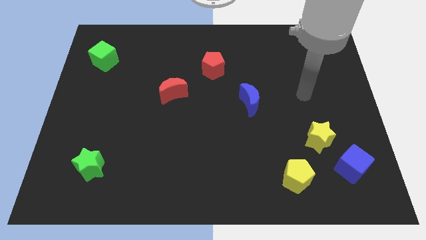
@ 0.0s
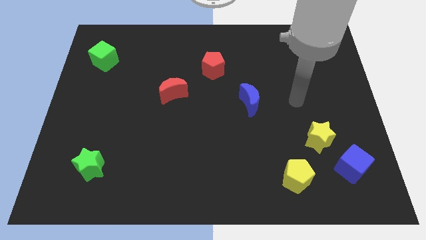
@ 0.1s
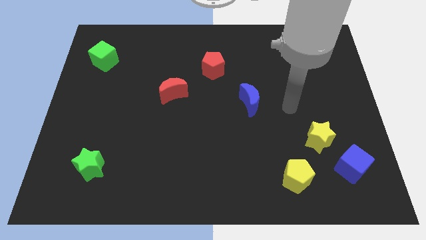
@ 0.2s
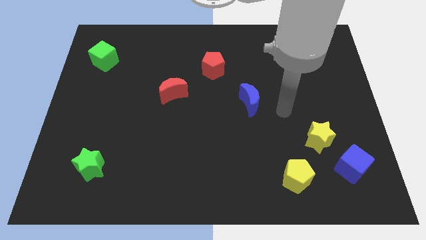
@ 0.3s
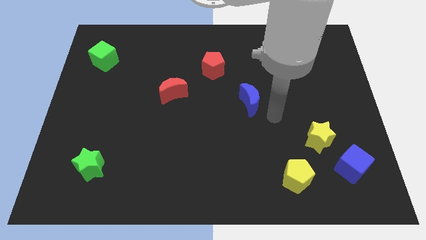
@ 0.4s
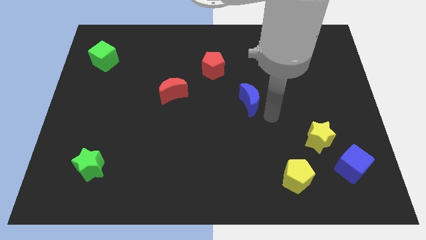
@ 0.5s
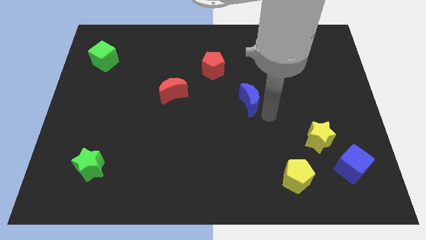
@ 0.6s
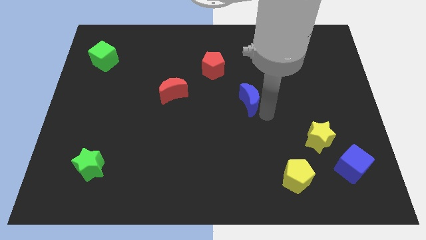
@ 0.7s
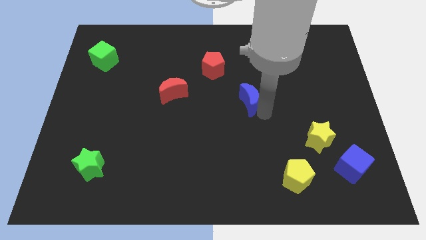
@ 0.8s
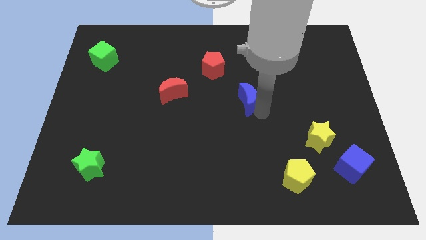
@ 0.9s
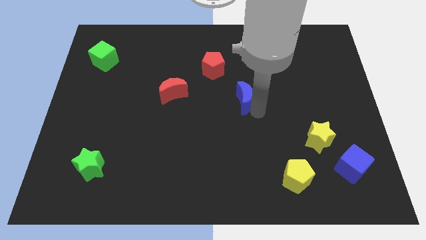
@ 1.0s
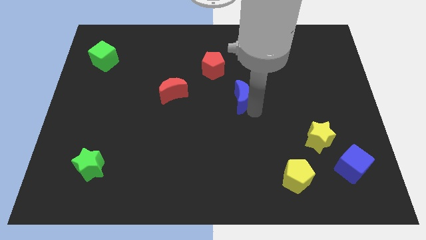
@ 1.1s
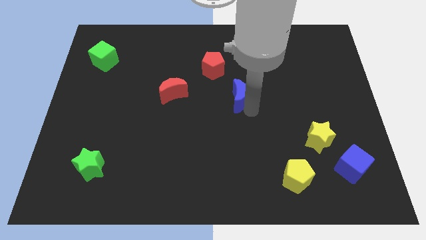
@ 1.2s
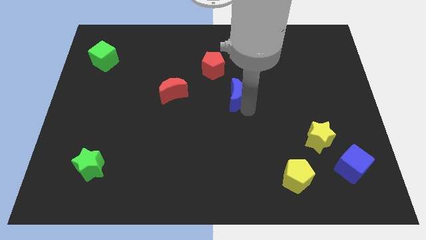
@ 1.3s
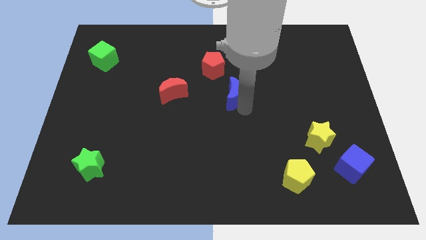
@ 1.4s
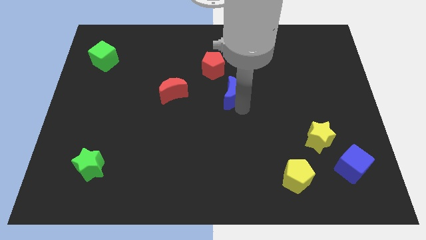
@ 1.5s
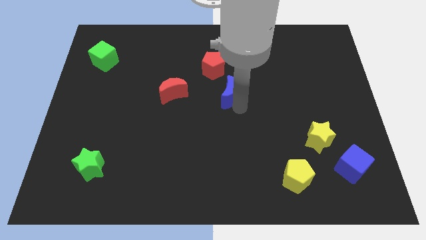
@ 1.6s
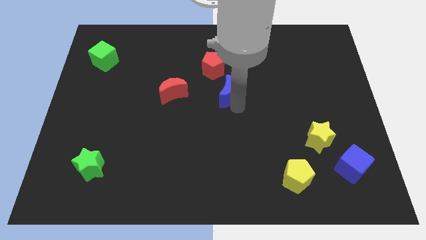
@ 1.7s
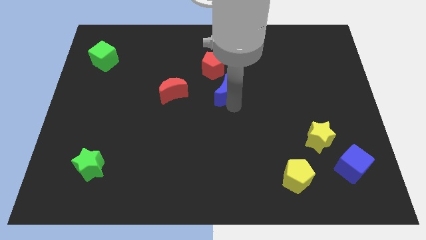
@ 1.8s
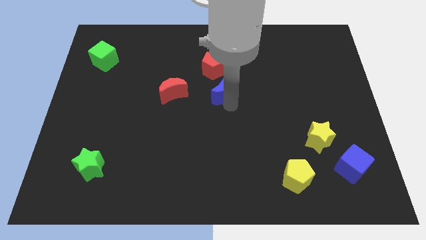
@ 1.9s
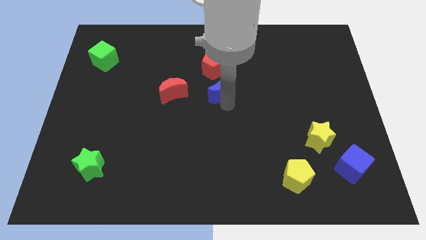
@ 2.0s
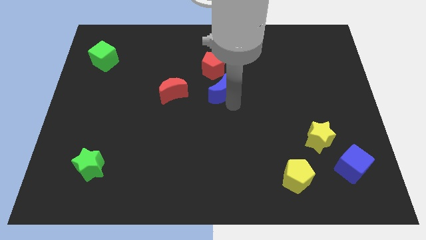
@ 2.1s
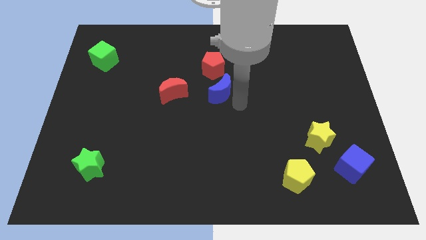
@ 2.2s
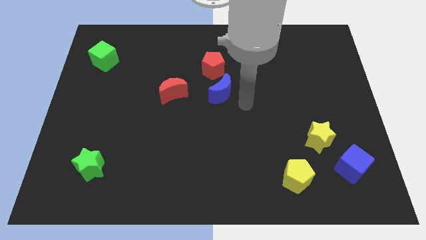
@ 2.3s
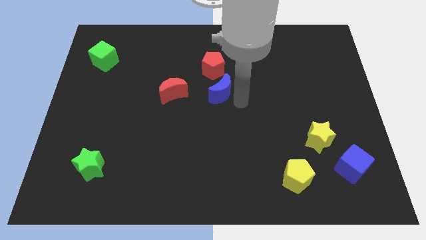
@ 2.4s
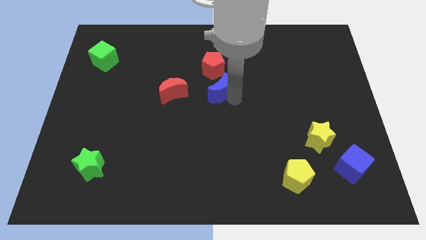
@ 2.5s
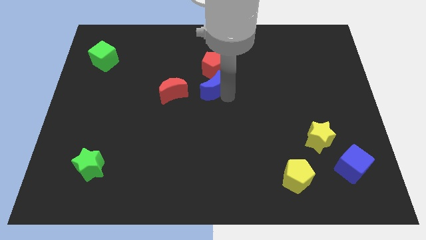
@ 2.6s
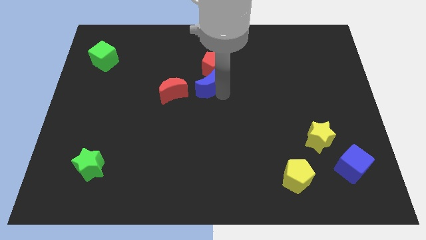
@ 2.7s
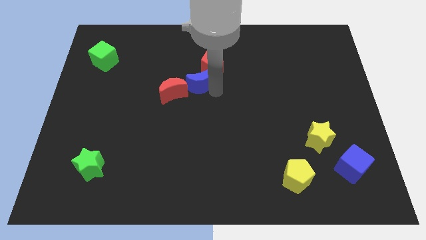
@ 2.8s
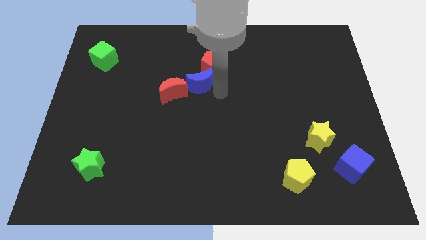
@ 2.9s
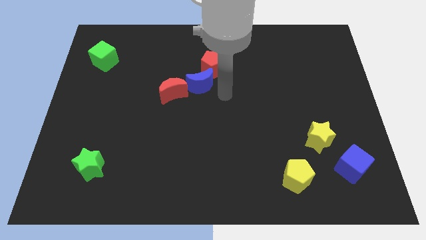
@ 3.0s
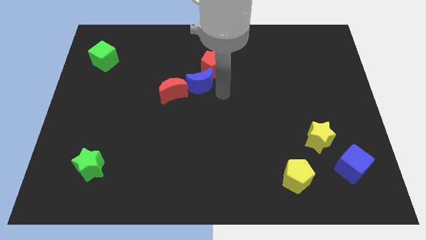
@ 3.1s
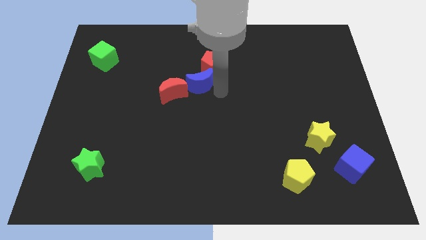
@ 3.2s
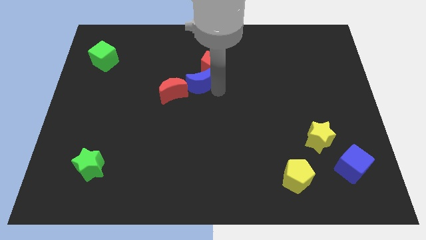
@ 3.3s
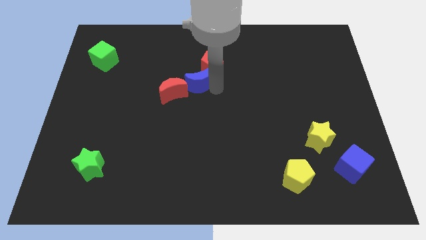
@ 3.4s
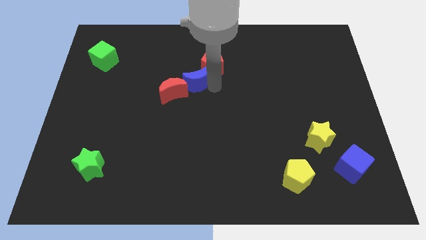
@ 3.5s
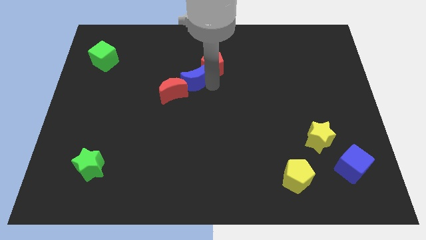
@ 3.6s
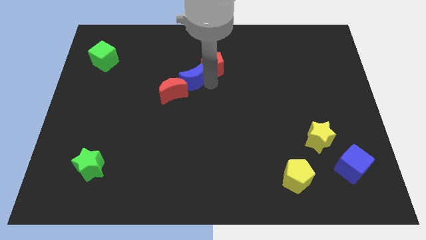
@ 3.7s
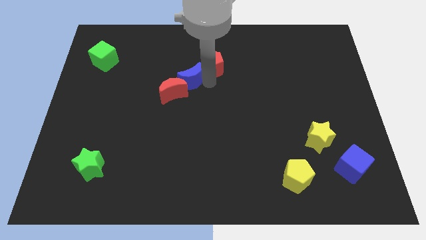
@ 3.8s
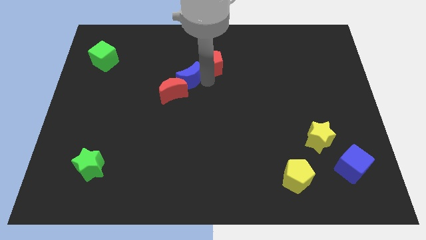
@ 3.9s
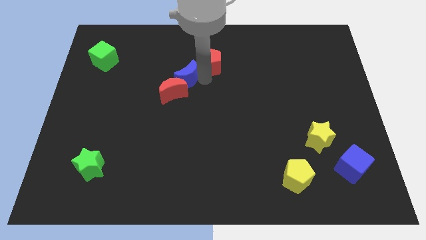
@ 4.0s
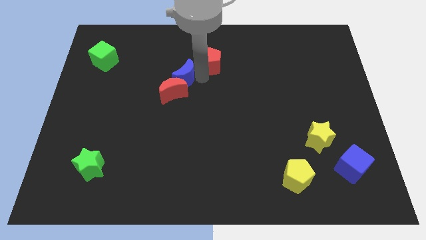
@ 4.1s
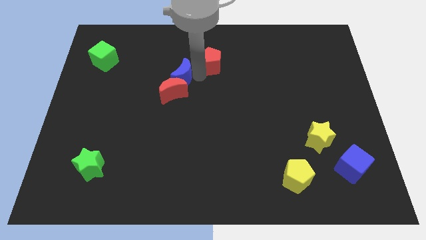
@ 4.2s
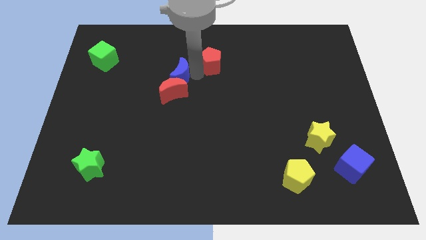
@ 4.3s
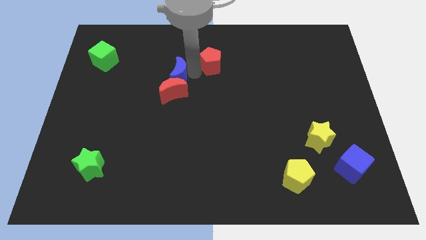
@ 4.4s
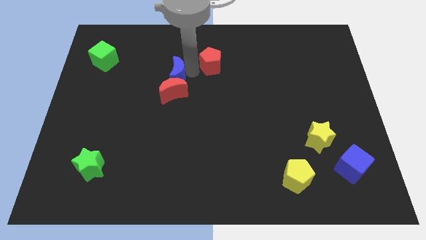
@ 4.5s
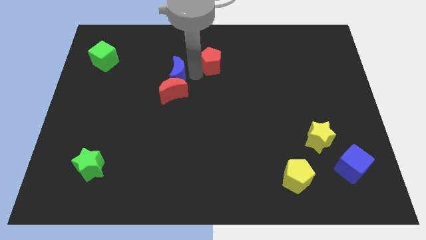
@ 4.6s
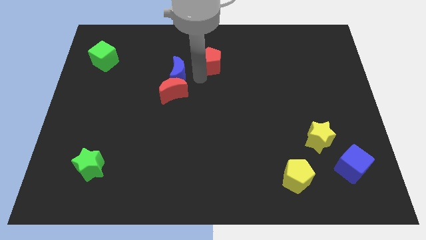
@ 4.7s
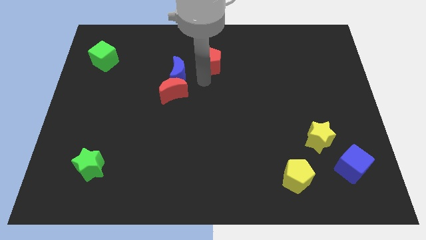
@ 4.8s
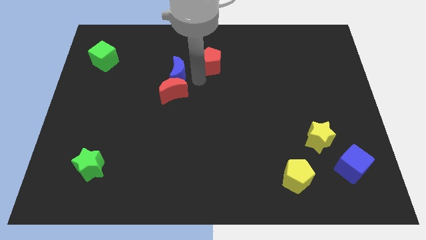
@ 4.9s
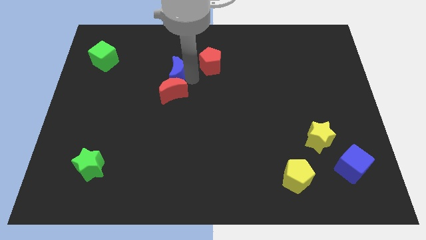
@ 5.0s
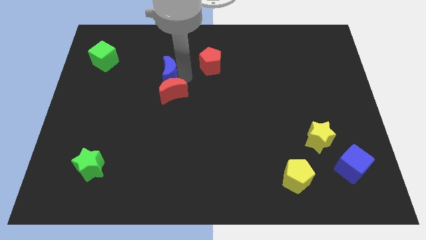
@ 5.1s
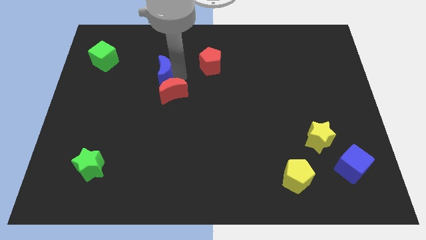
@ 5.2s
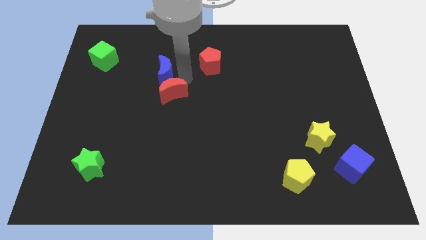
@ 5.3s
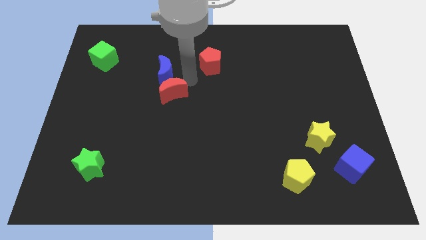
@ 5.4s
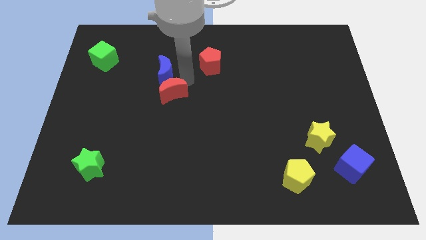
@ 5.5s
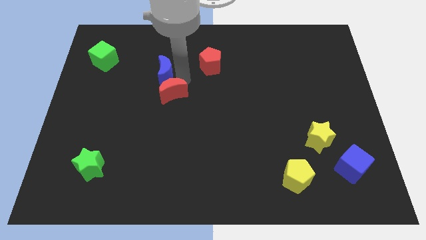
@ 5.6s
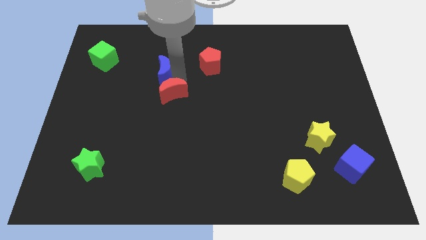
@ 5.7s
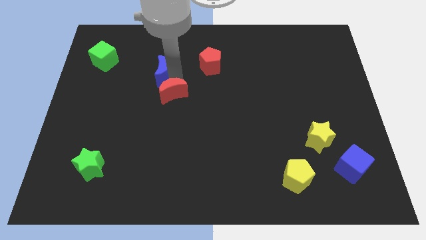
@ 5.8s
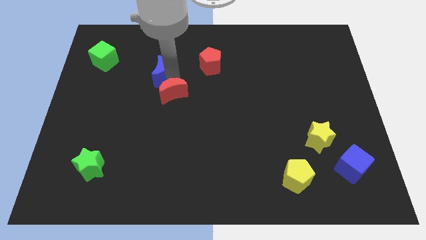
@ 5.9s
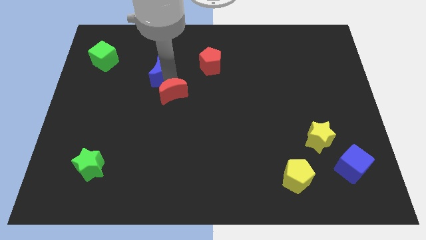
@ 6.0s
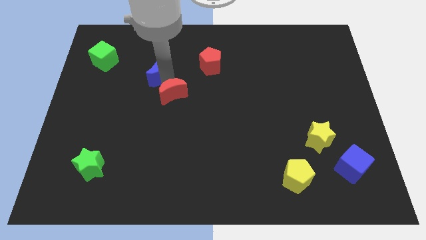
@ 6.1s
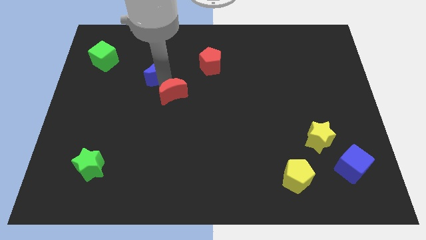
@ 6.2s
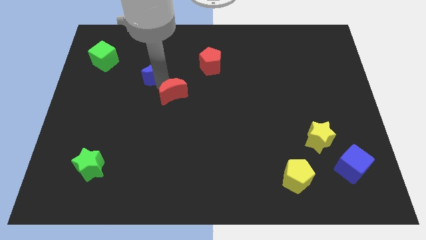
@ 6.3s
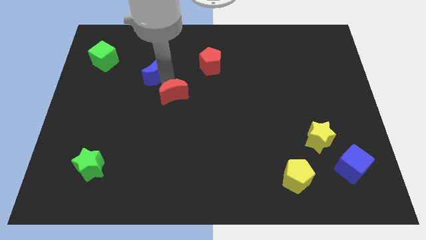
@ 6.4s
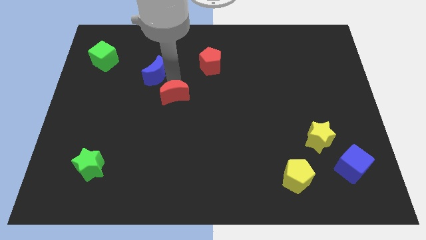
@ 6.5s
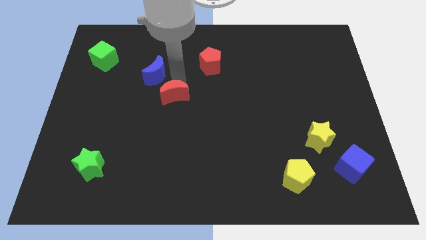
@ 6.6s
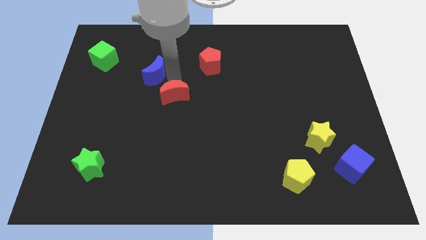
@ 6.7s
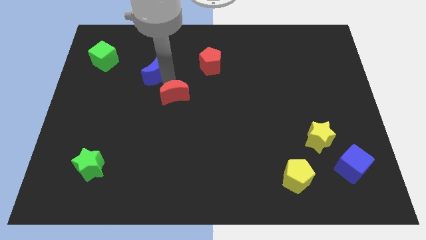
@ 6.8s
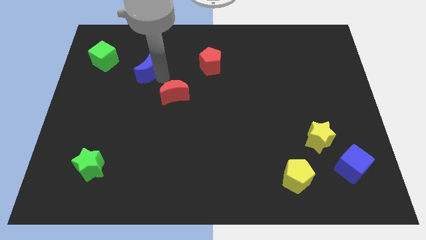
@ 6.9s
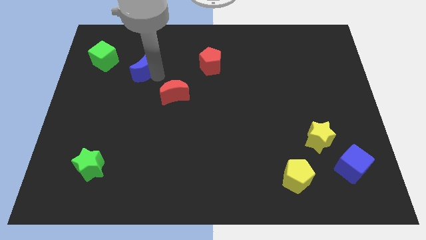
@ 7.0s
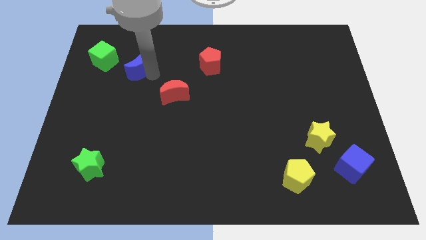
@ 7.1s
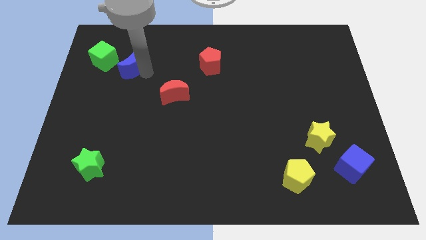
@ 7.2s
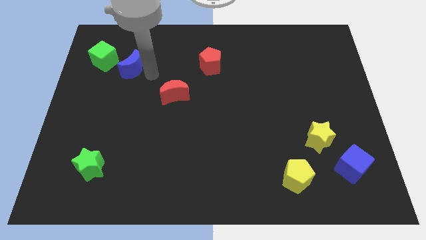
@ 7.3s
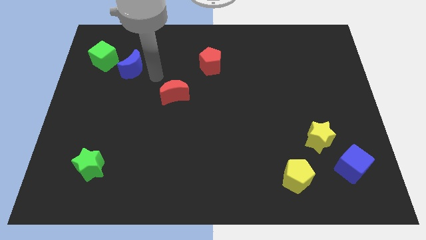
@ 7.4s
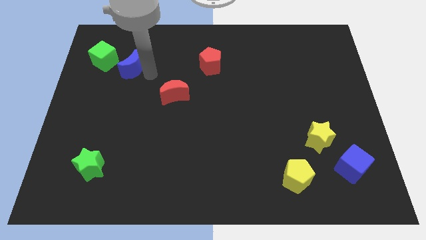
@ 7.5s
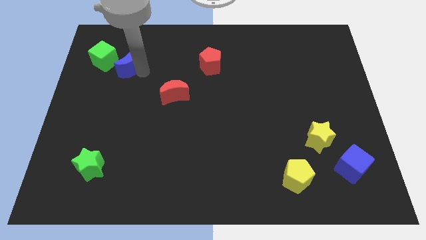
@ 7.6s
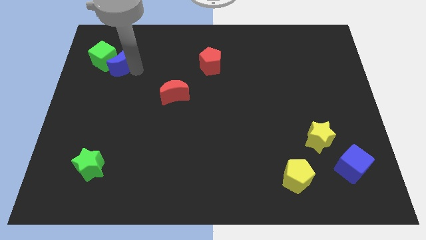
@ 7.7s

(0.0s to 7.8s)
push the blue moon to the green cube
